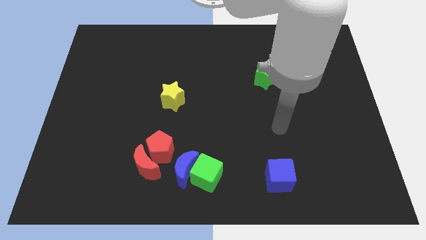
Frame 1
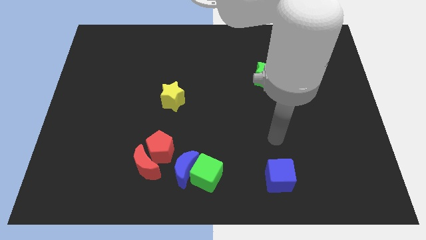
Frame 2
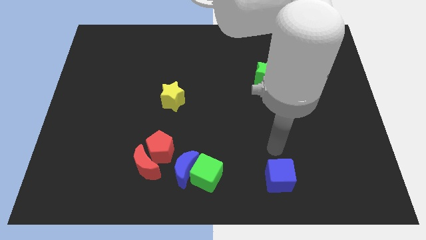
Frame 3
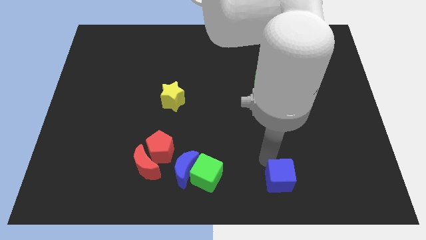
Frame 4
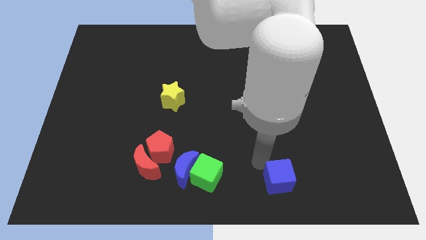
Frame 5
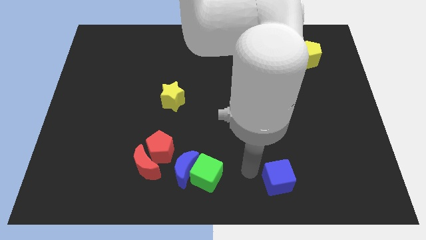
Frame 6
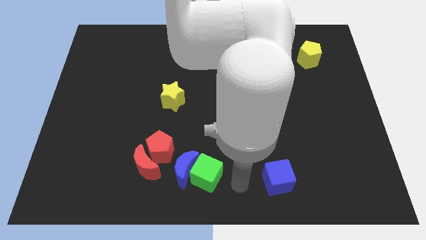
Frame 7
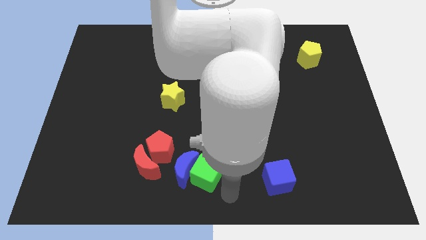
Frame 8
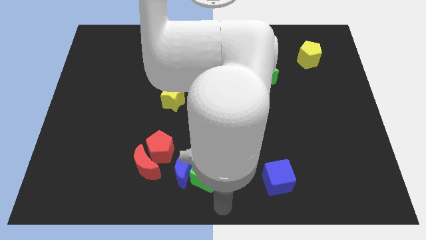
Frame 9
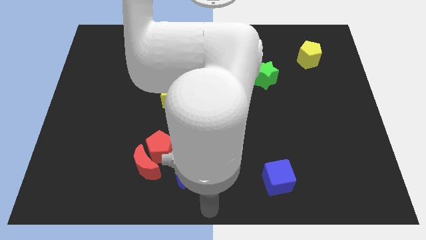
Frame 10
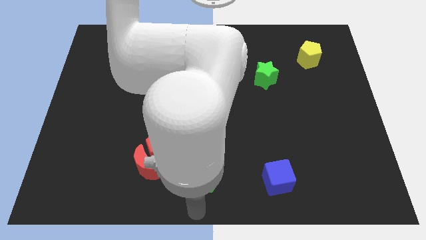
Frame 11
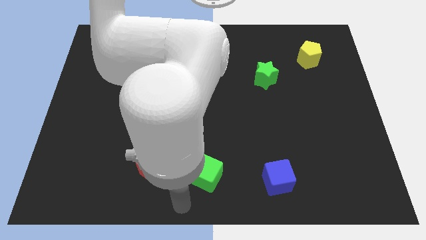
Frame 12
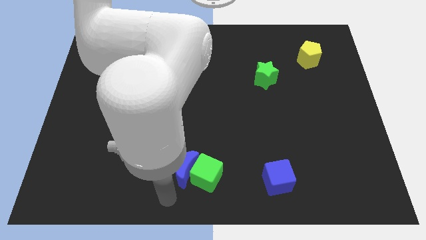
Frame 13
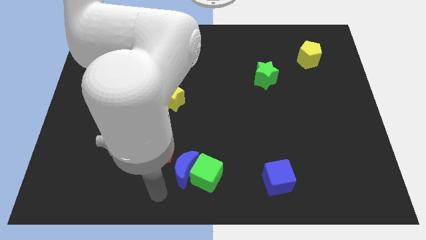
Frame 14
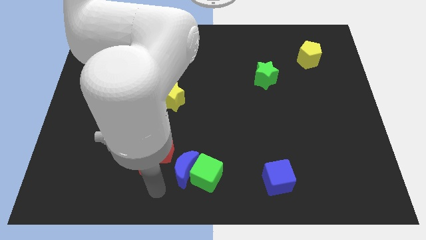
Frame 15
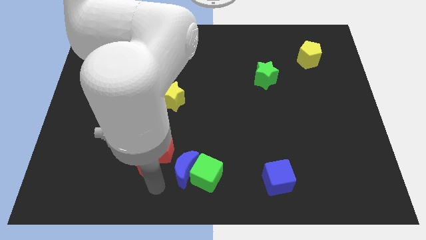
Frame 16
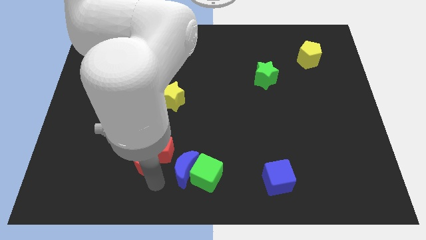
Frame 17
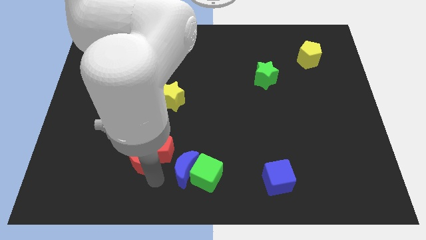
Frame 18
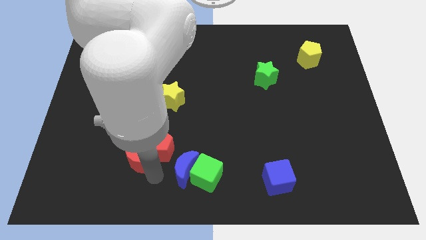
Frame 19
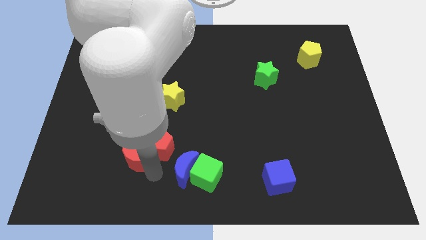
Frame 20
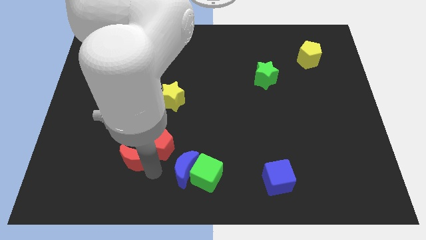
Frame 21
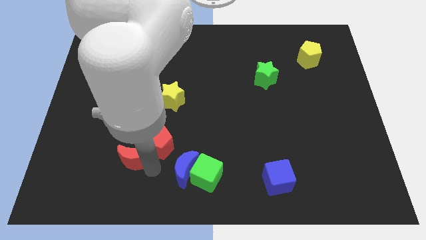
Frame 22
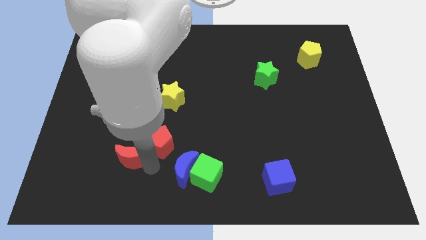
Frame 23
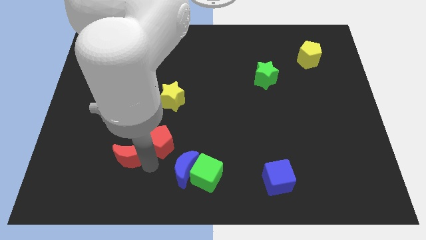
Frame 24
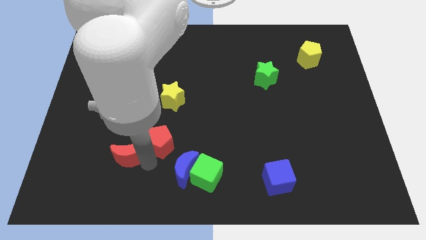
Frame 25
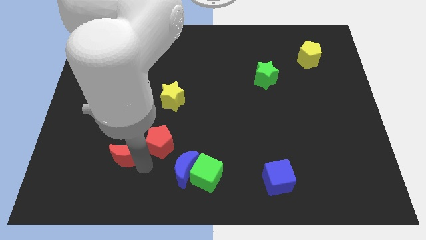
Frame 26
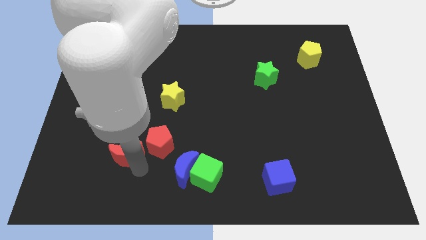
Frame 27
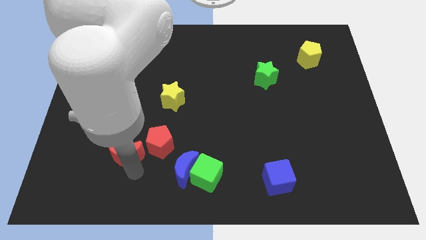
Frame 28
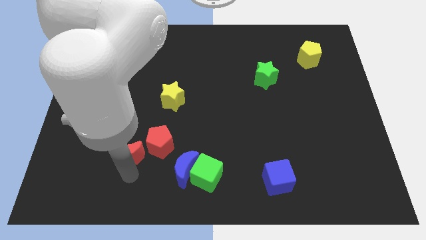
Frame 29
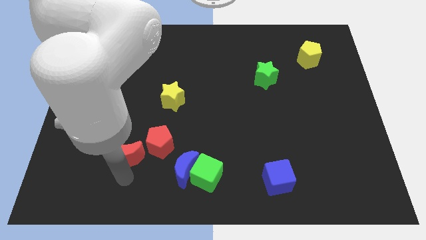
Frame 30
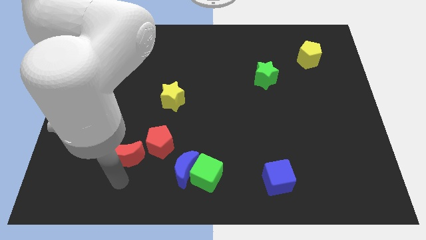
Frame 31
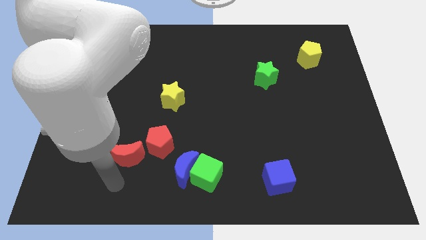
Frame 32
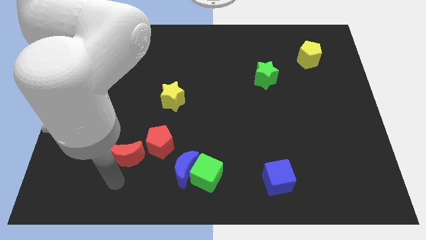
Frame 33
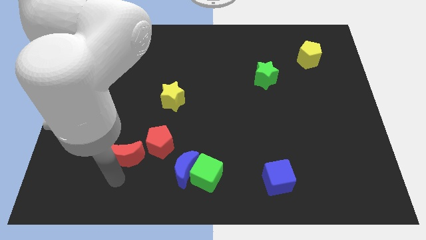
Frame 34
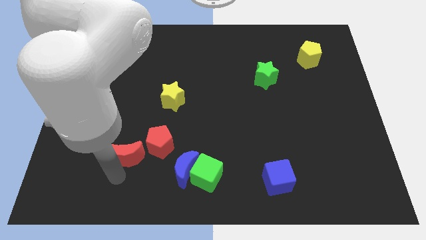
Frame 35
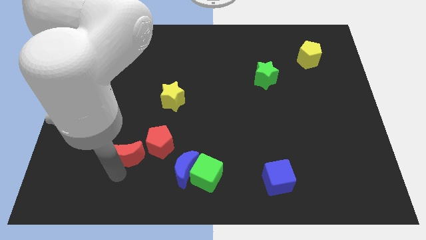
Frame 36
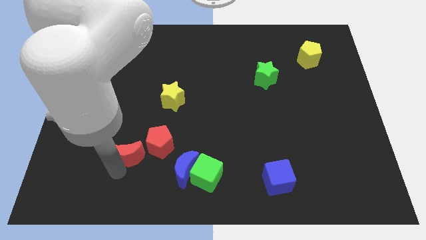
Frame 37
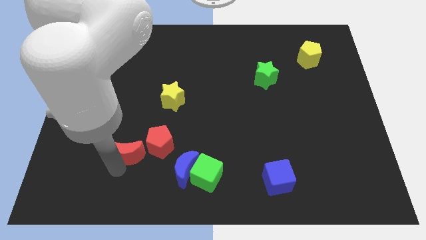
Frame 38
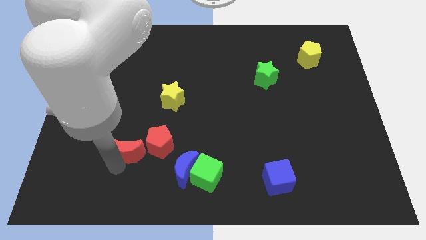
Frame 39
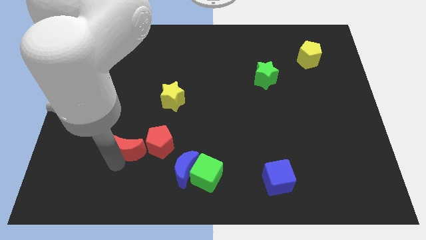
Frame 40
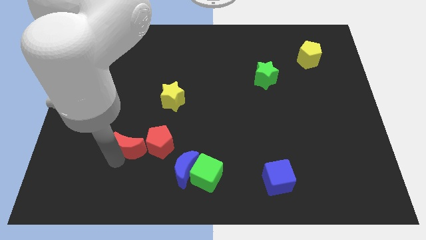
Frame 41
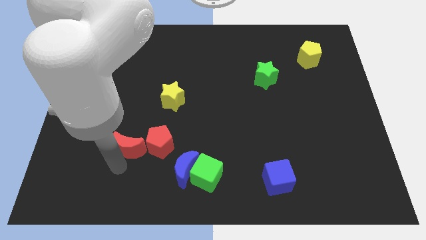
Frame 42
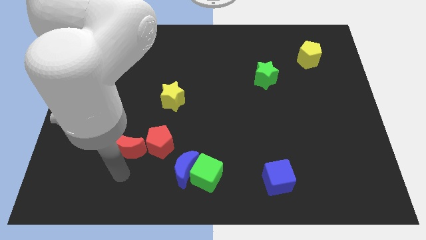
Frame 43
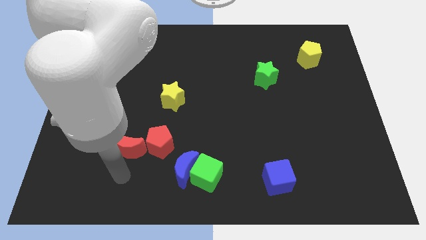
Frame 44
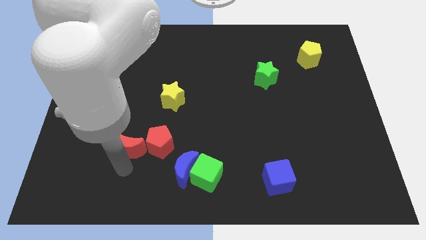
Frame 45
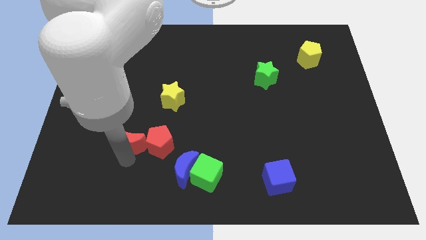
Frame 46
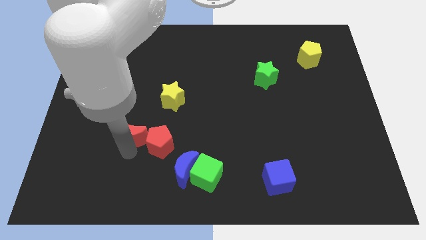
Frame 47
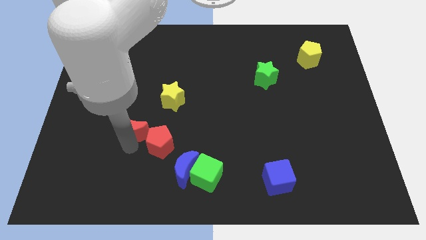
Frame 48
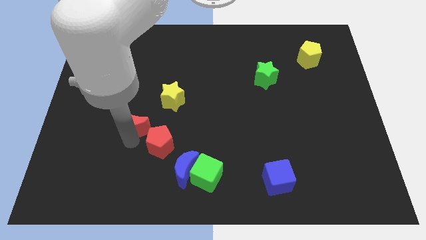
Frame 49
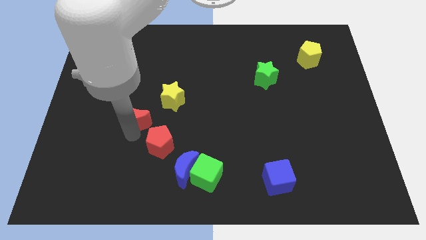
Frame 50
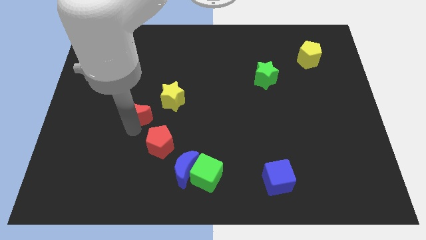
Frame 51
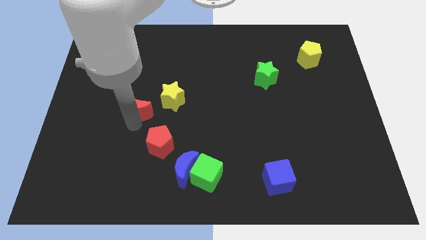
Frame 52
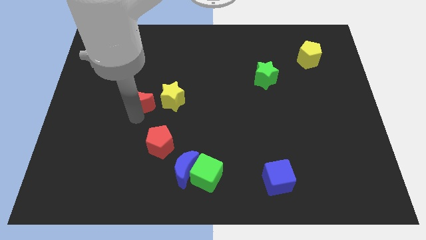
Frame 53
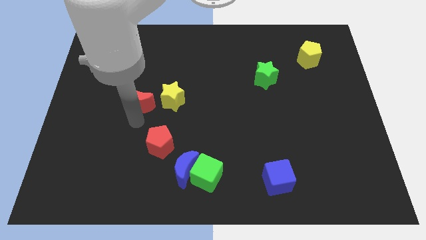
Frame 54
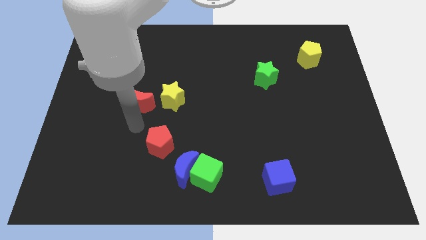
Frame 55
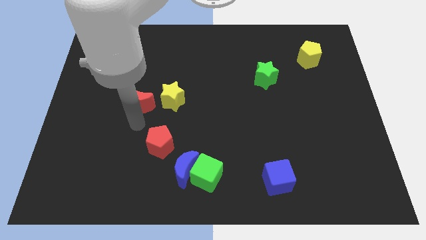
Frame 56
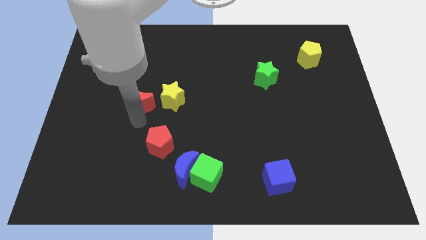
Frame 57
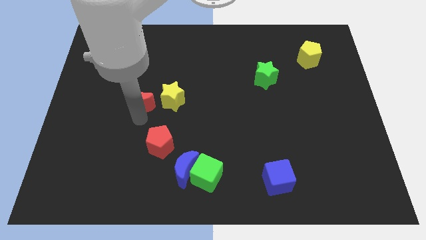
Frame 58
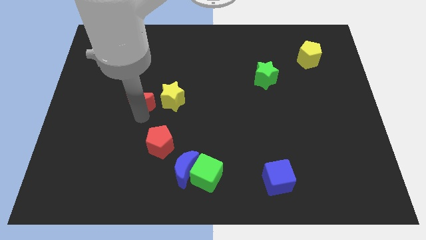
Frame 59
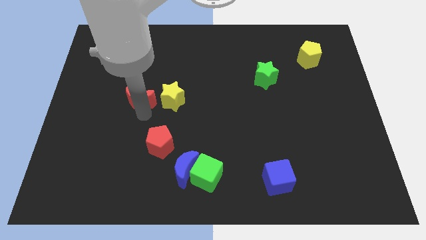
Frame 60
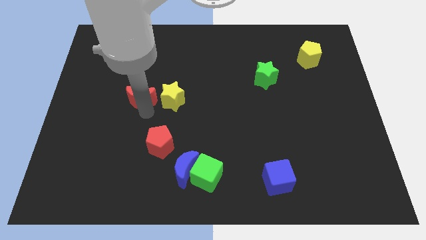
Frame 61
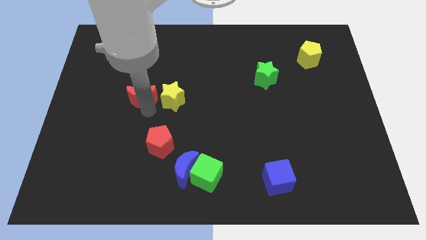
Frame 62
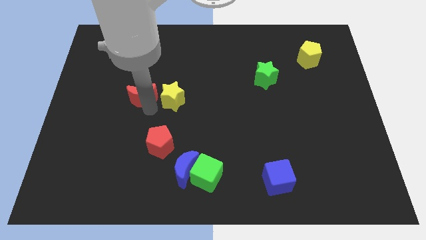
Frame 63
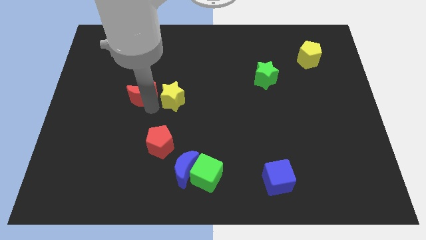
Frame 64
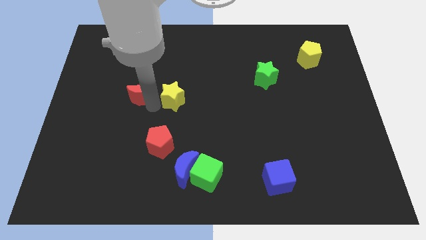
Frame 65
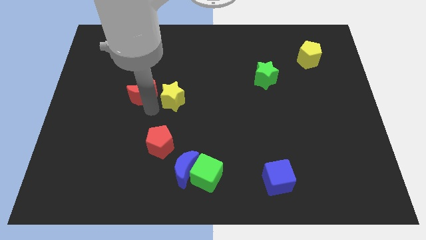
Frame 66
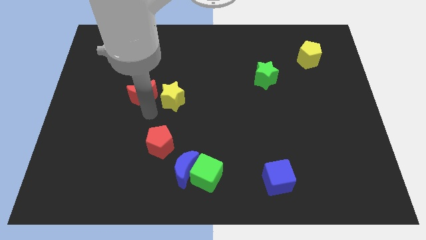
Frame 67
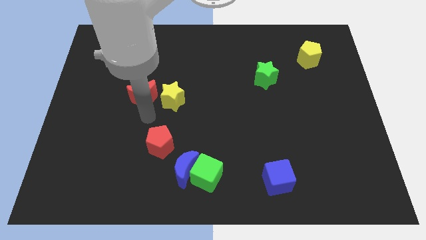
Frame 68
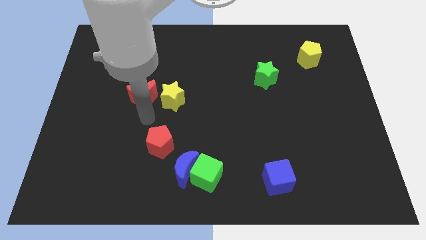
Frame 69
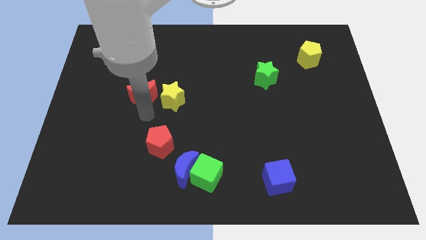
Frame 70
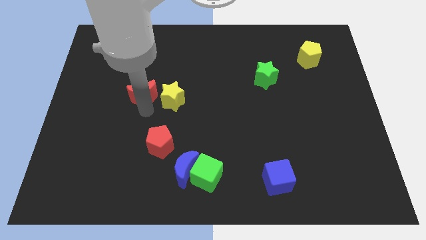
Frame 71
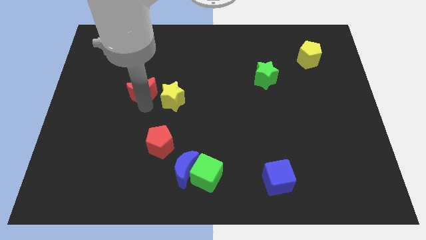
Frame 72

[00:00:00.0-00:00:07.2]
slide the red moon up

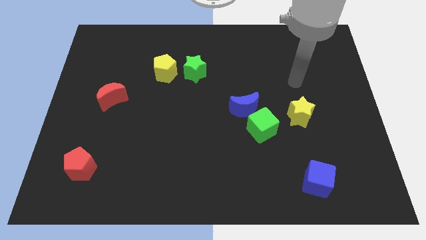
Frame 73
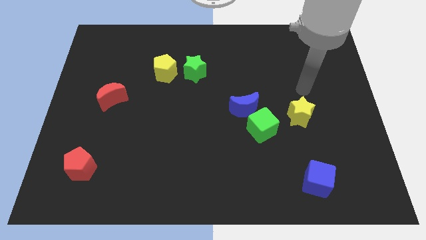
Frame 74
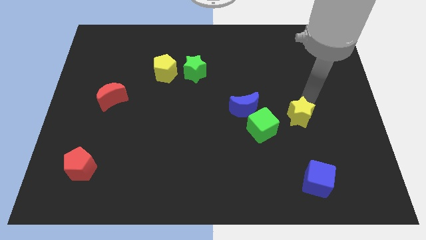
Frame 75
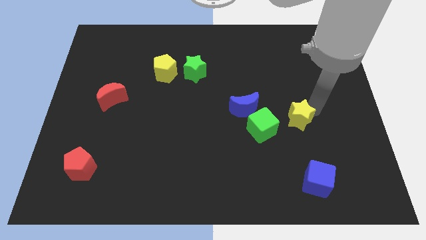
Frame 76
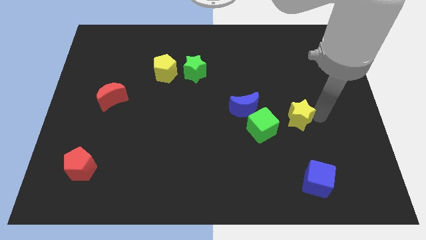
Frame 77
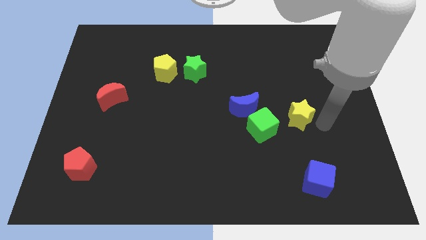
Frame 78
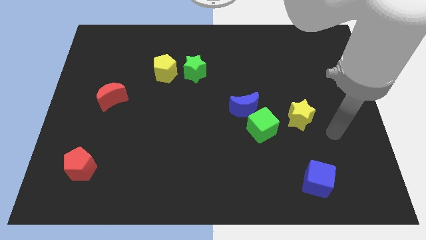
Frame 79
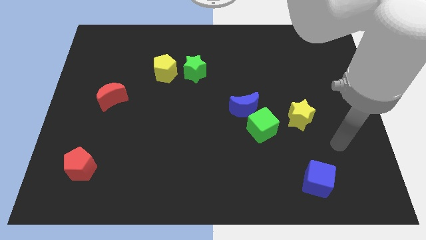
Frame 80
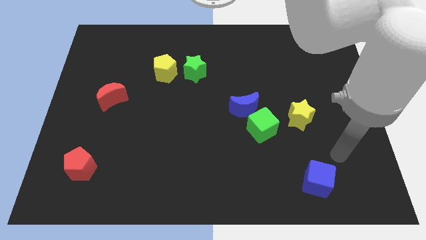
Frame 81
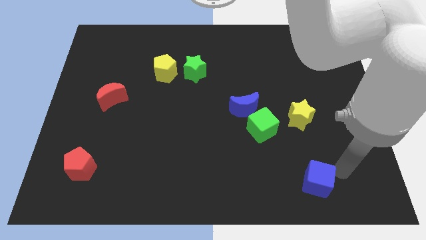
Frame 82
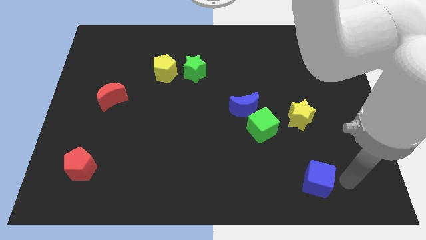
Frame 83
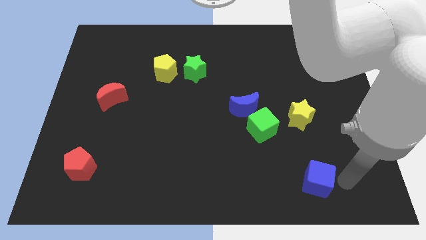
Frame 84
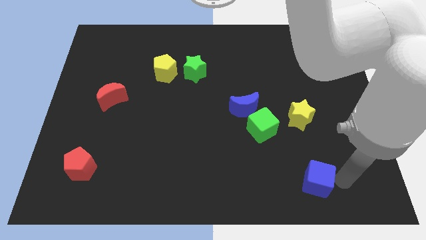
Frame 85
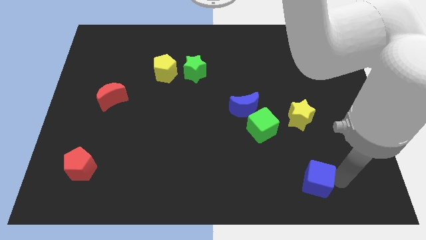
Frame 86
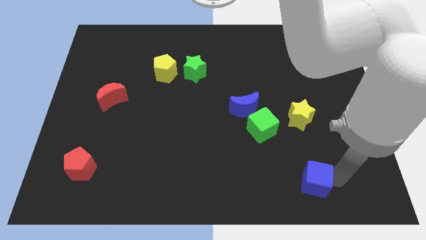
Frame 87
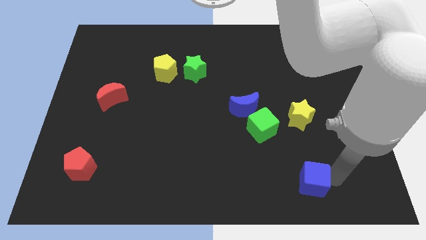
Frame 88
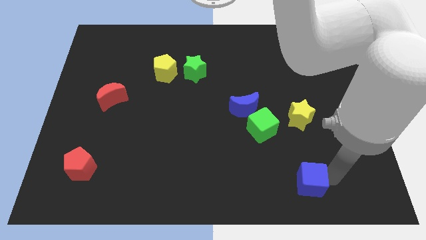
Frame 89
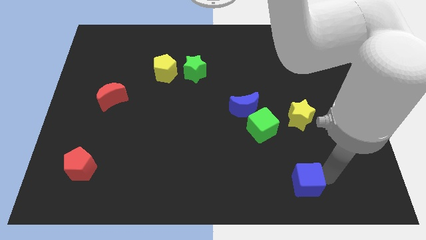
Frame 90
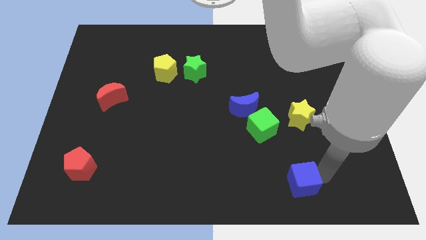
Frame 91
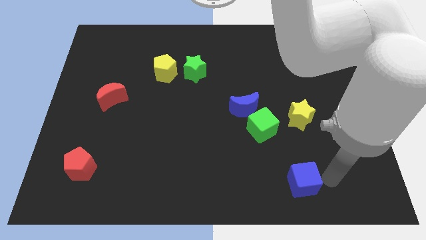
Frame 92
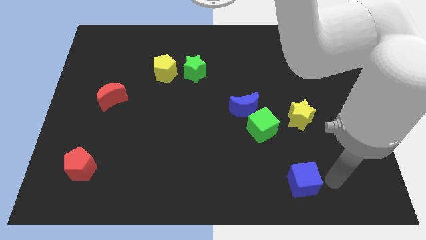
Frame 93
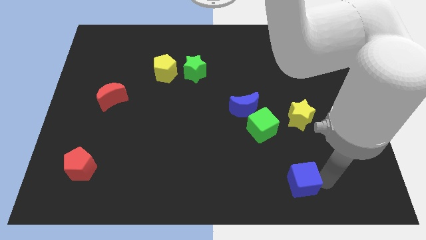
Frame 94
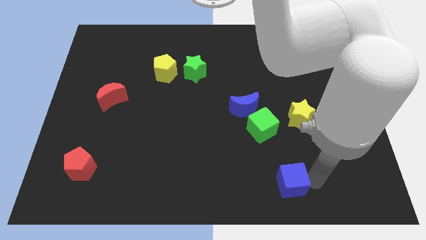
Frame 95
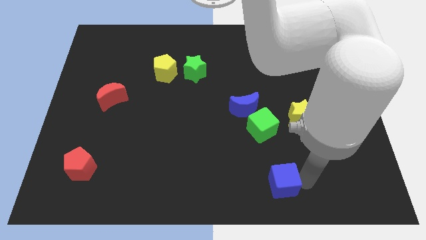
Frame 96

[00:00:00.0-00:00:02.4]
slide the blue cube left slightly
